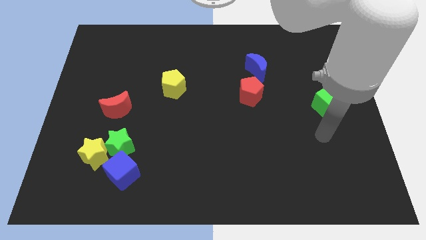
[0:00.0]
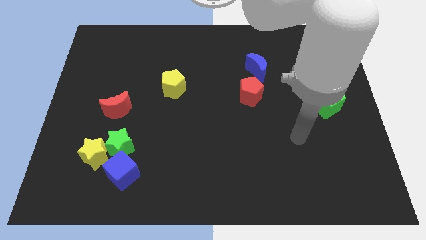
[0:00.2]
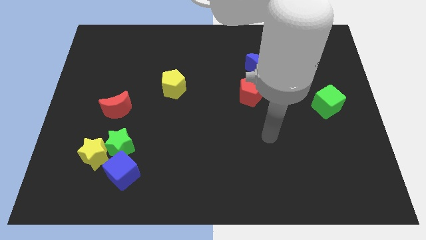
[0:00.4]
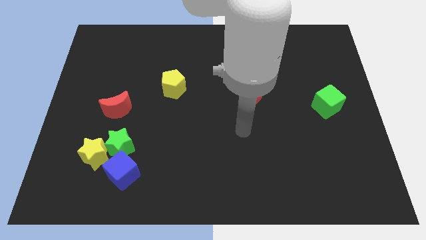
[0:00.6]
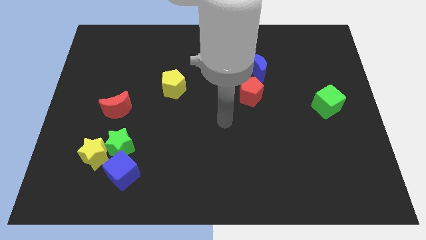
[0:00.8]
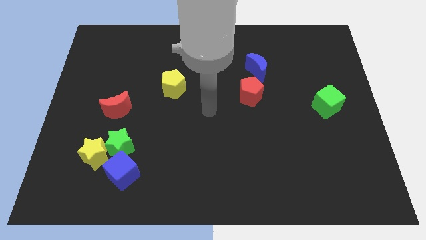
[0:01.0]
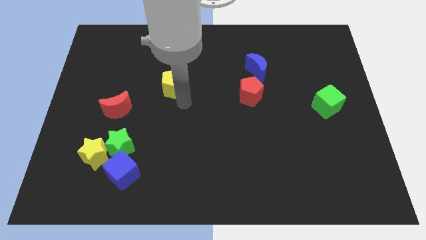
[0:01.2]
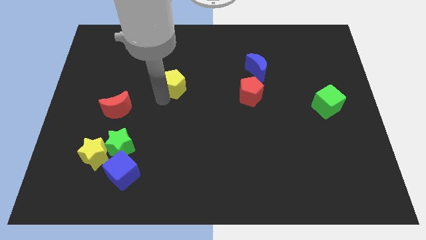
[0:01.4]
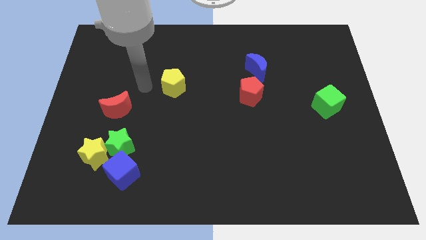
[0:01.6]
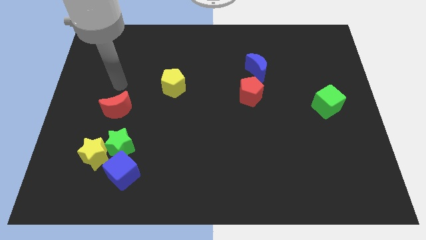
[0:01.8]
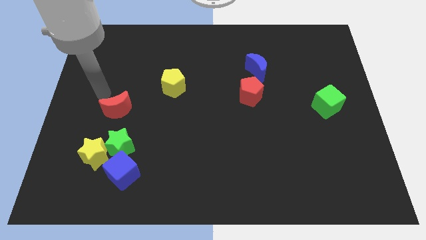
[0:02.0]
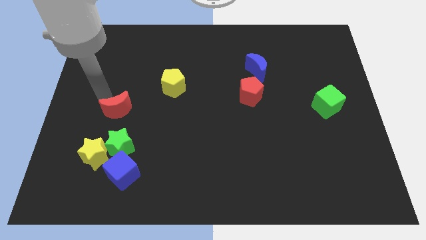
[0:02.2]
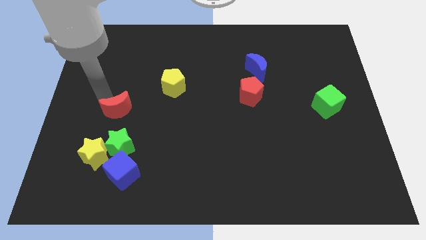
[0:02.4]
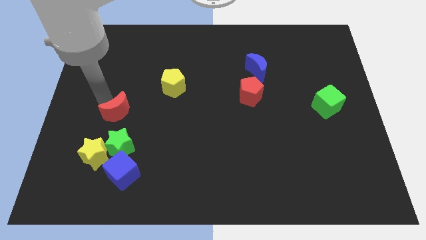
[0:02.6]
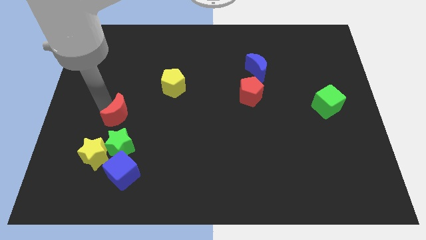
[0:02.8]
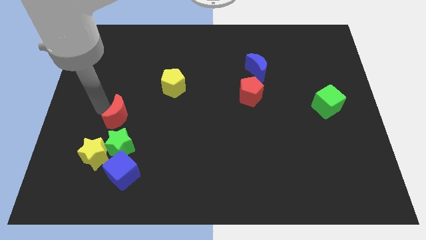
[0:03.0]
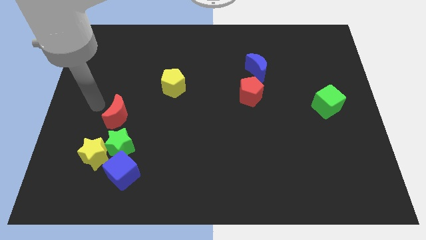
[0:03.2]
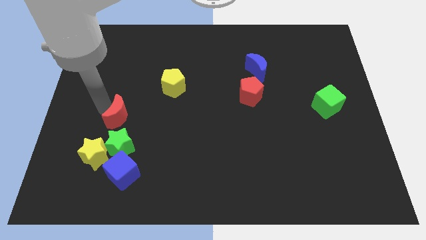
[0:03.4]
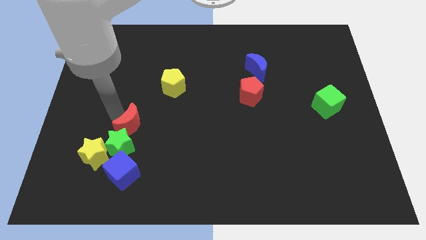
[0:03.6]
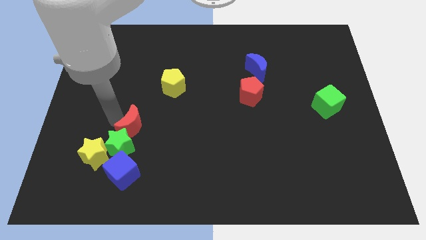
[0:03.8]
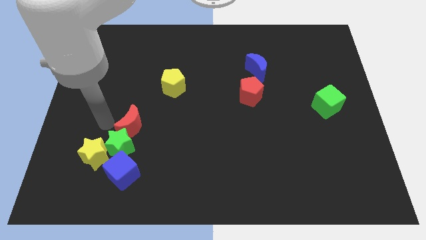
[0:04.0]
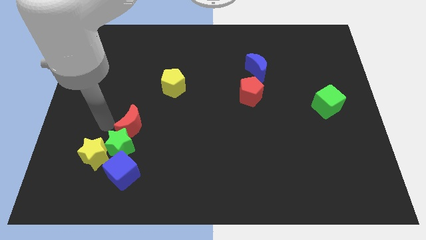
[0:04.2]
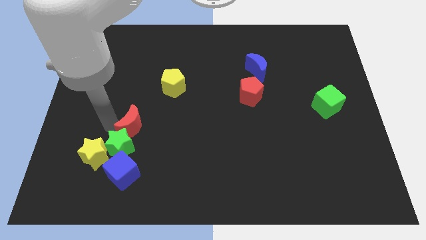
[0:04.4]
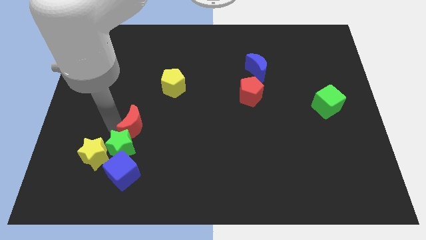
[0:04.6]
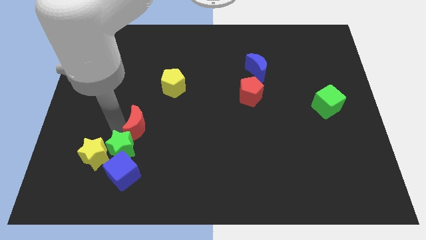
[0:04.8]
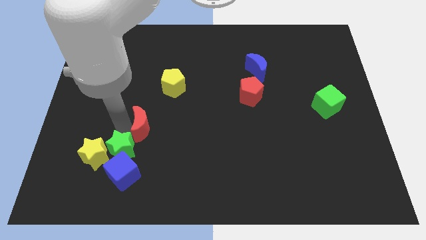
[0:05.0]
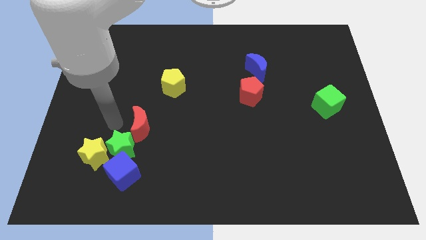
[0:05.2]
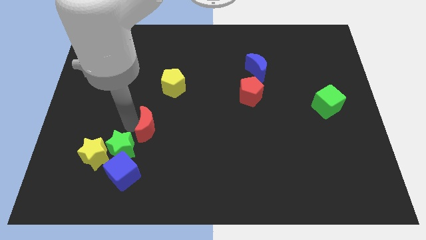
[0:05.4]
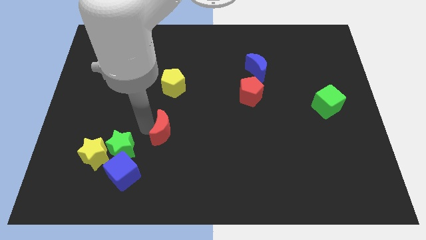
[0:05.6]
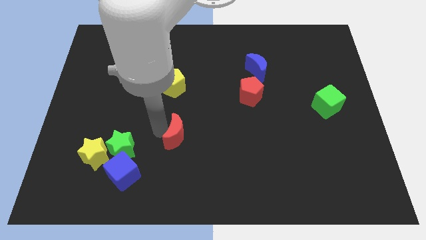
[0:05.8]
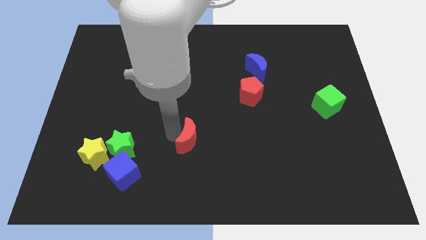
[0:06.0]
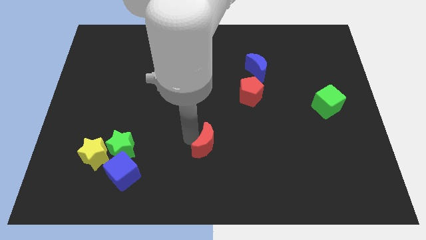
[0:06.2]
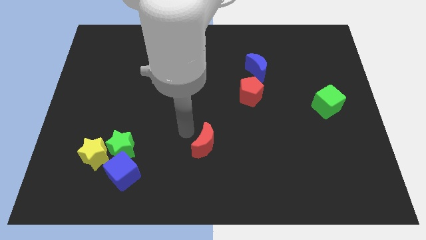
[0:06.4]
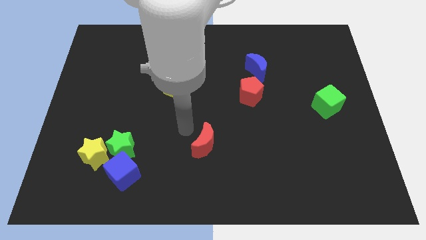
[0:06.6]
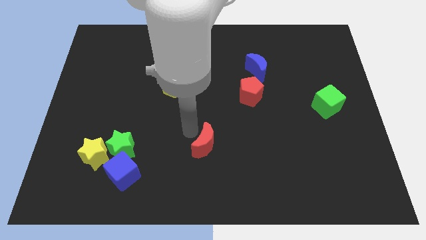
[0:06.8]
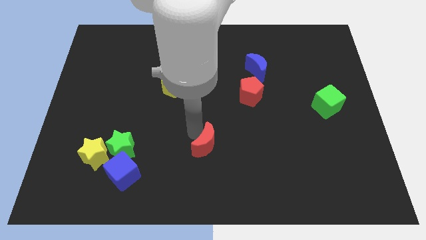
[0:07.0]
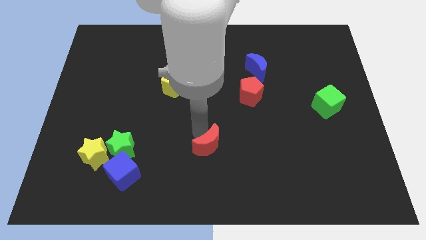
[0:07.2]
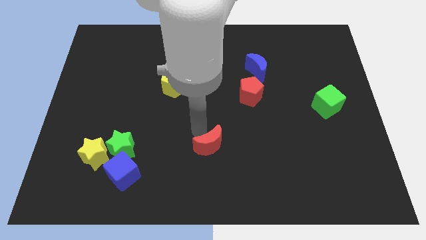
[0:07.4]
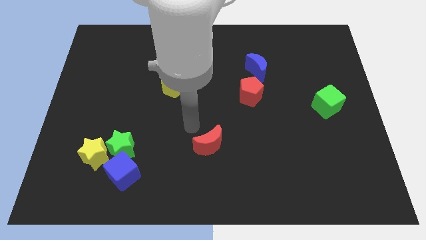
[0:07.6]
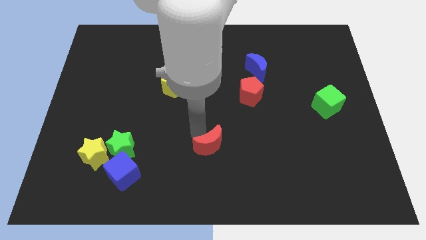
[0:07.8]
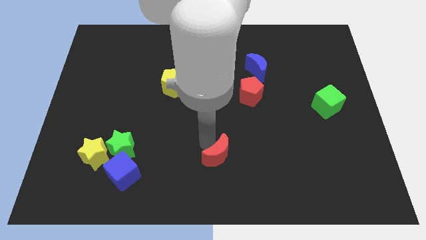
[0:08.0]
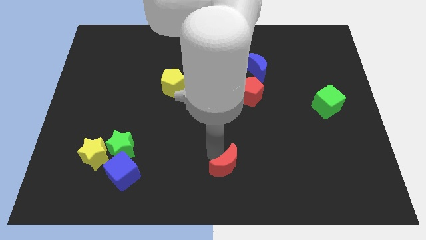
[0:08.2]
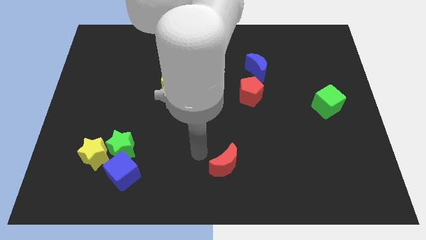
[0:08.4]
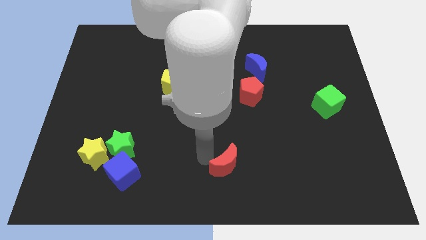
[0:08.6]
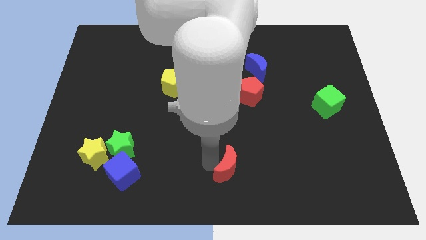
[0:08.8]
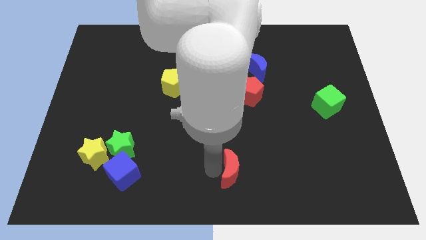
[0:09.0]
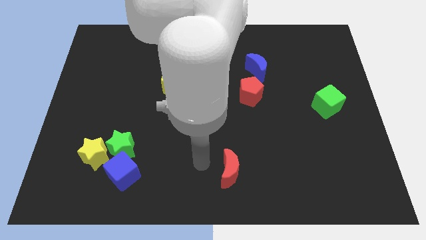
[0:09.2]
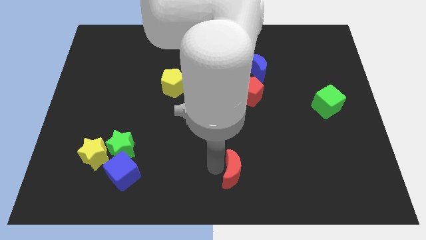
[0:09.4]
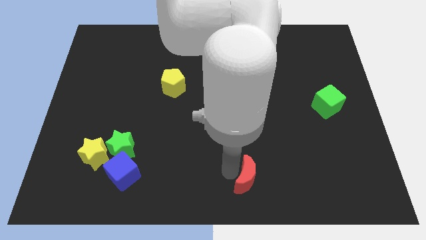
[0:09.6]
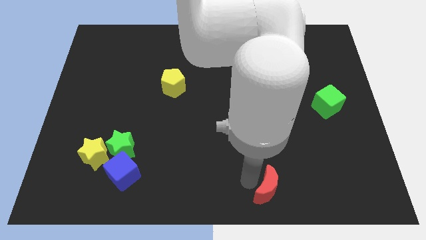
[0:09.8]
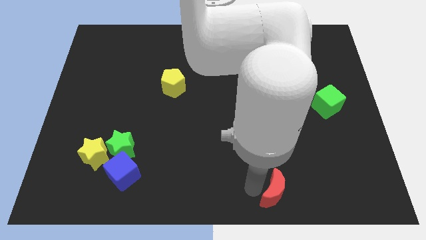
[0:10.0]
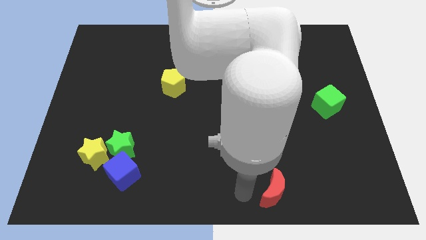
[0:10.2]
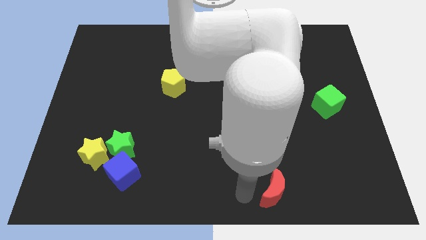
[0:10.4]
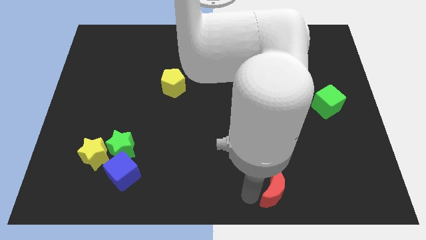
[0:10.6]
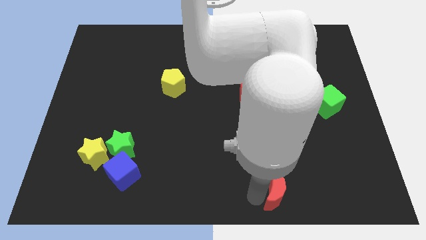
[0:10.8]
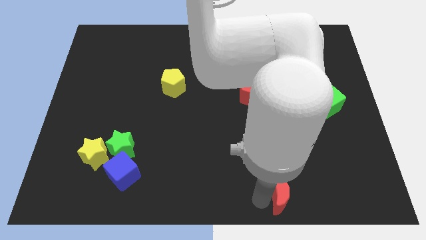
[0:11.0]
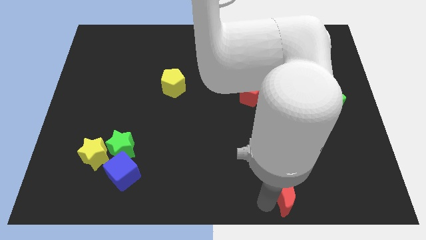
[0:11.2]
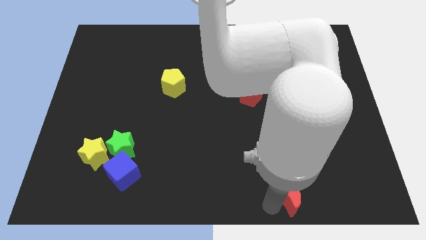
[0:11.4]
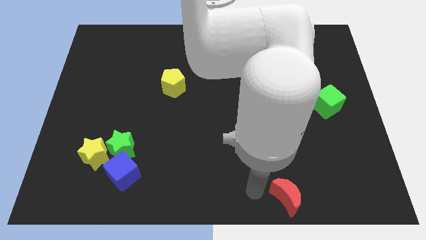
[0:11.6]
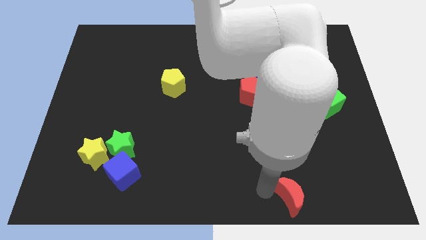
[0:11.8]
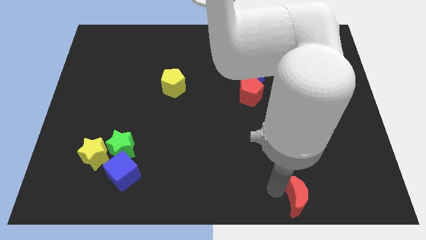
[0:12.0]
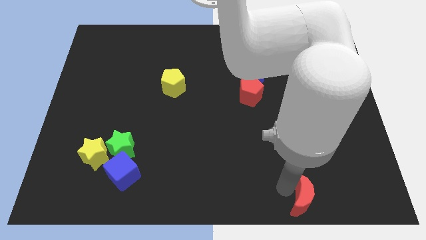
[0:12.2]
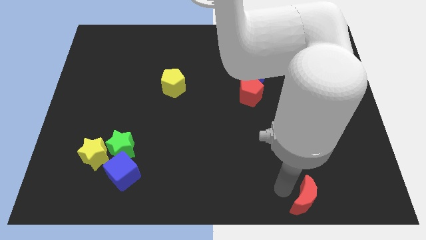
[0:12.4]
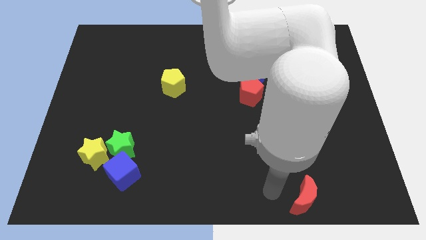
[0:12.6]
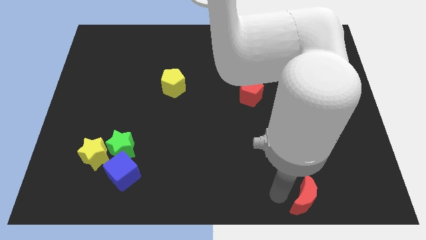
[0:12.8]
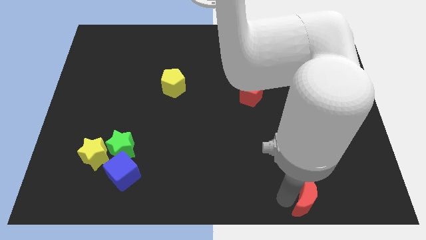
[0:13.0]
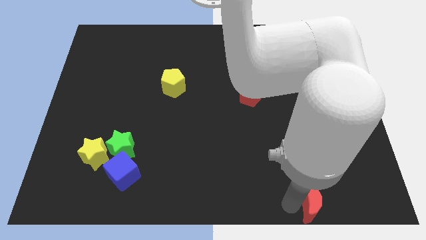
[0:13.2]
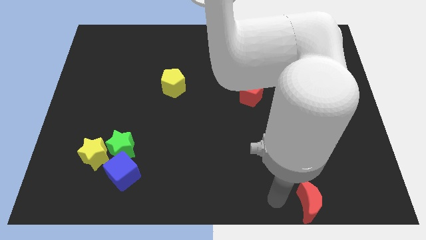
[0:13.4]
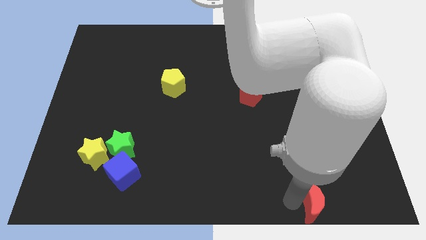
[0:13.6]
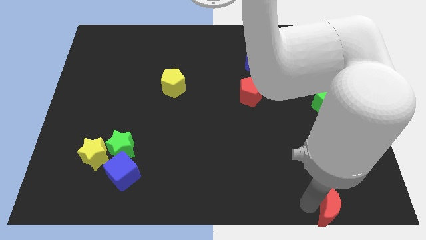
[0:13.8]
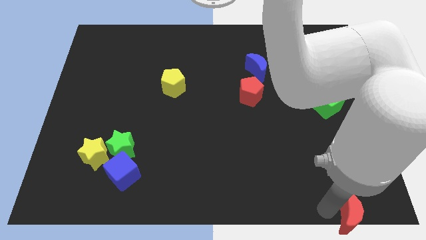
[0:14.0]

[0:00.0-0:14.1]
move the red moon to the bottom right
